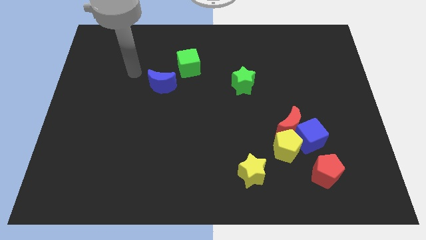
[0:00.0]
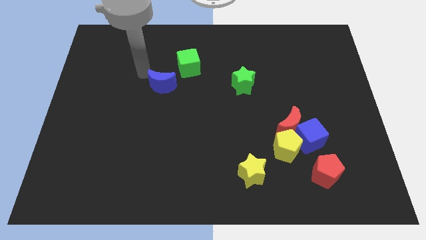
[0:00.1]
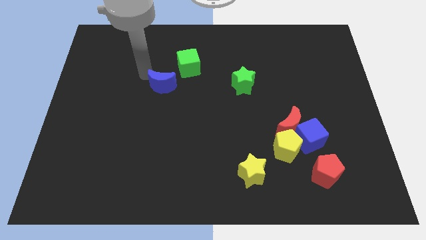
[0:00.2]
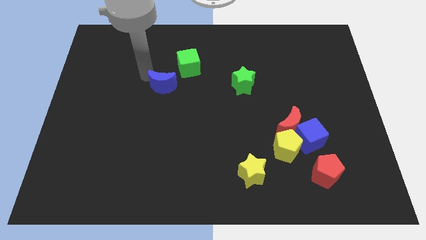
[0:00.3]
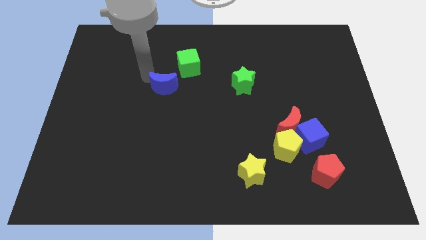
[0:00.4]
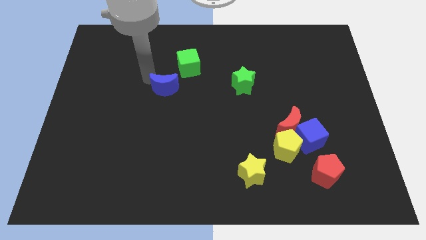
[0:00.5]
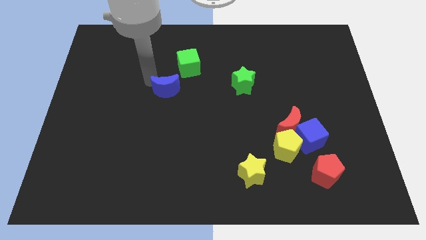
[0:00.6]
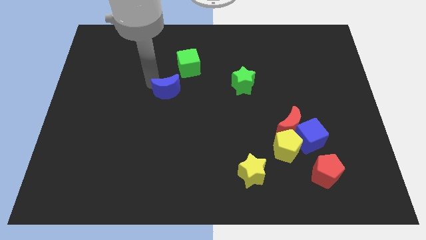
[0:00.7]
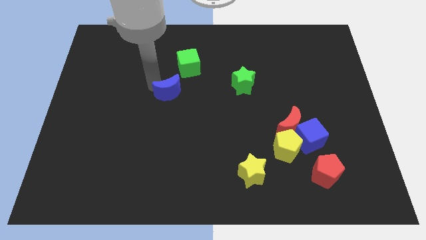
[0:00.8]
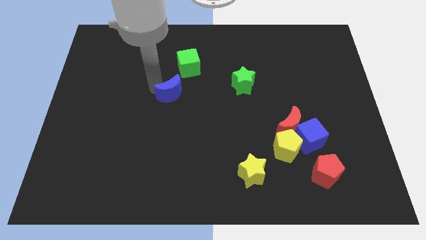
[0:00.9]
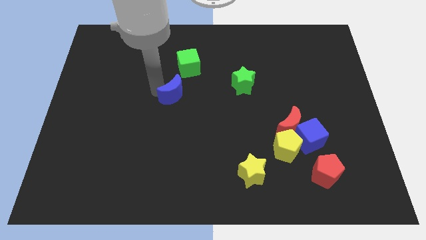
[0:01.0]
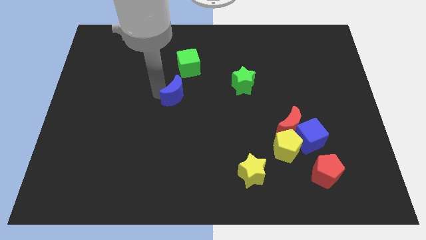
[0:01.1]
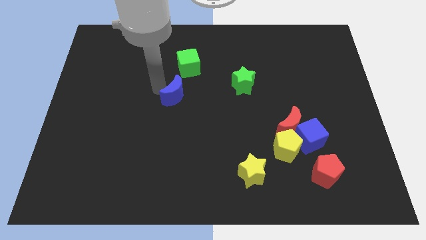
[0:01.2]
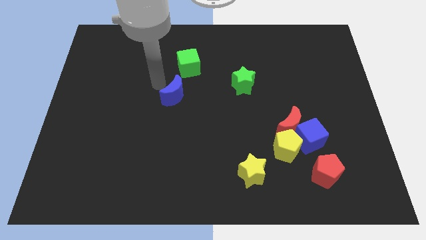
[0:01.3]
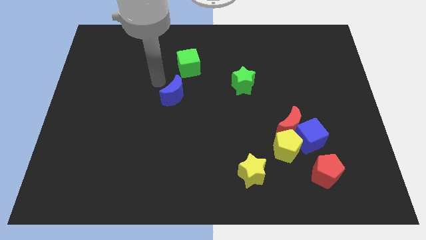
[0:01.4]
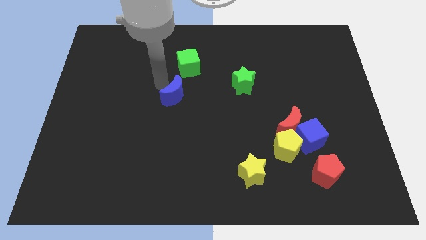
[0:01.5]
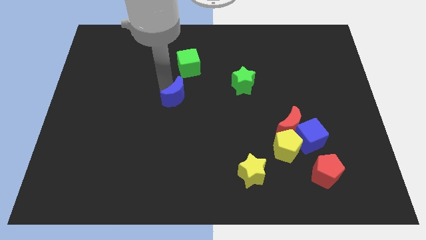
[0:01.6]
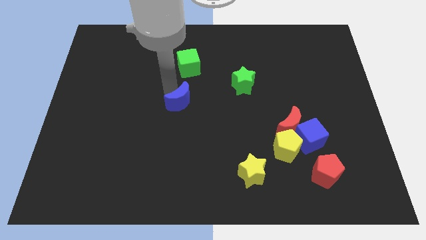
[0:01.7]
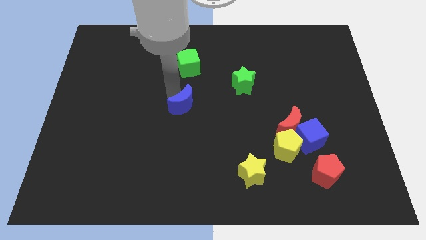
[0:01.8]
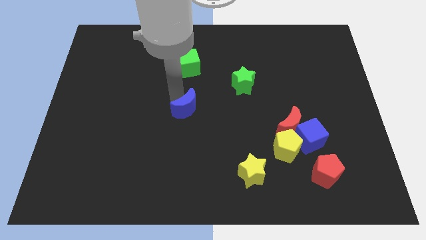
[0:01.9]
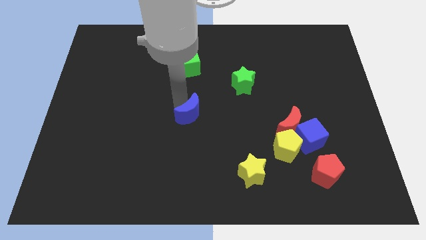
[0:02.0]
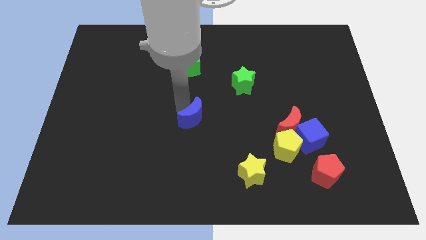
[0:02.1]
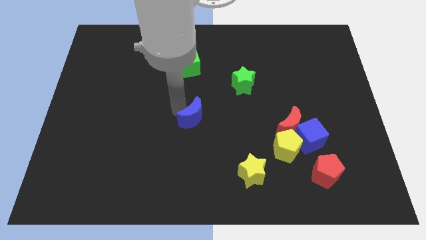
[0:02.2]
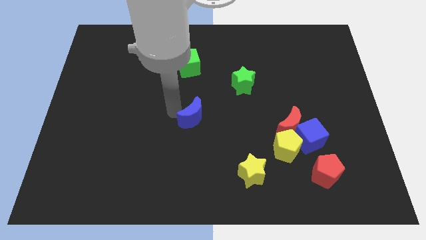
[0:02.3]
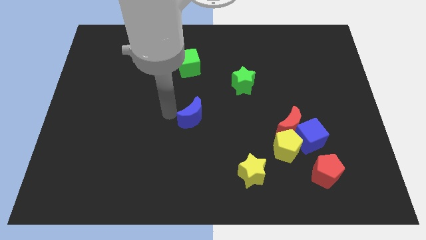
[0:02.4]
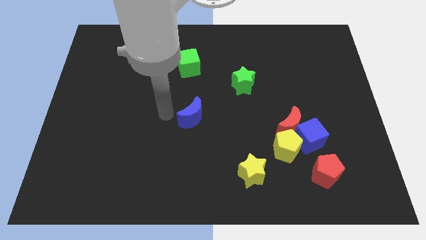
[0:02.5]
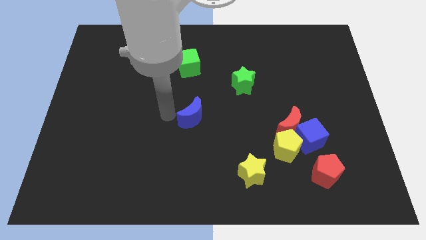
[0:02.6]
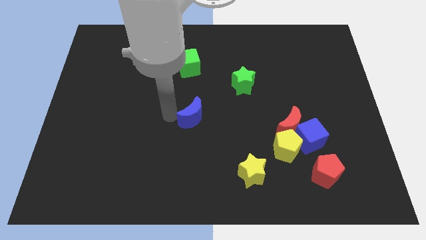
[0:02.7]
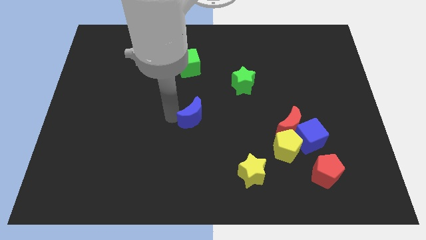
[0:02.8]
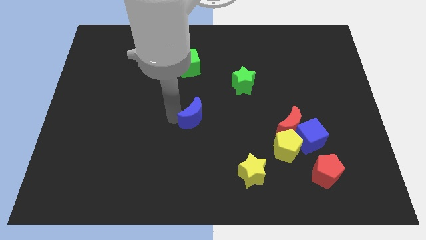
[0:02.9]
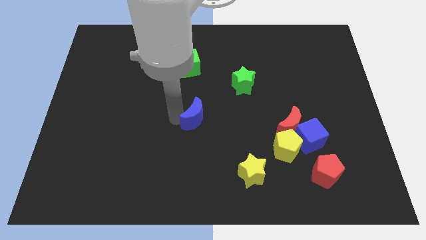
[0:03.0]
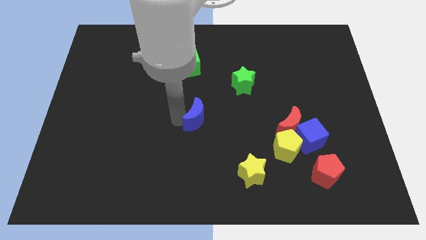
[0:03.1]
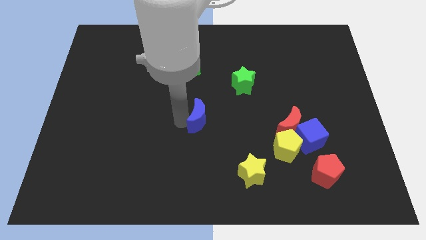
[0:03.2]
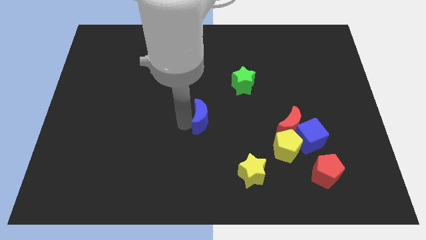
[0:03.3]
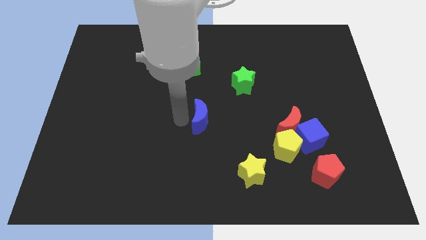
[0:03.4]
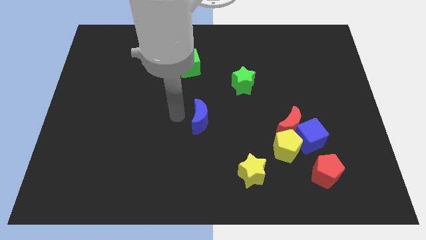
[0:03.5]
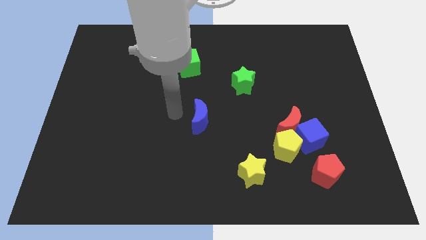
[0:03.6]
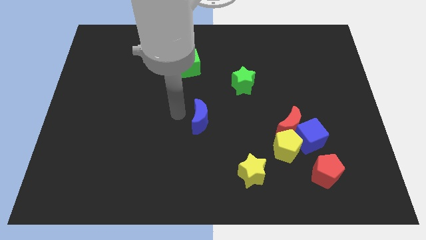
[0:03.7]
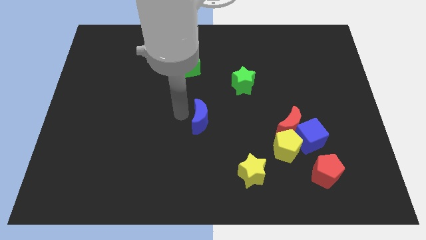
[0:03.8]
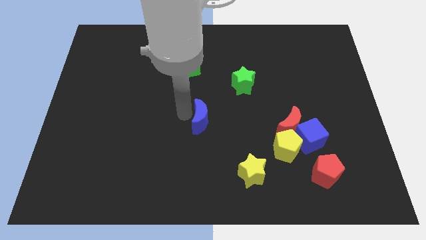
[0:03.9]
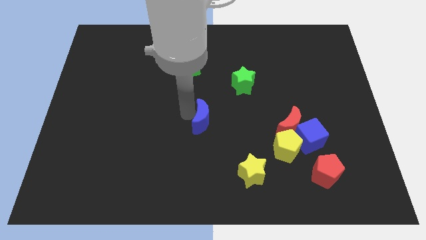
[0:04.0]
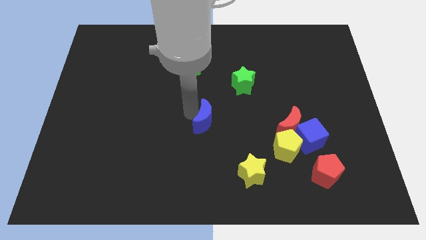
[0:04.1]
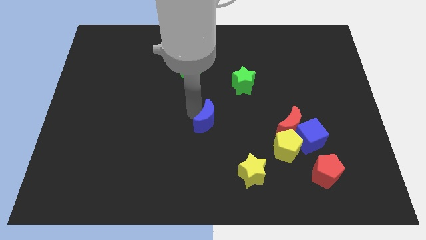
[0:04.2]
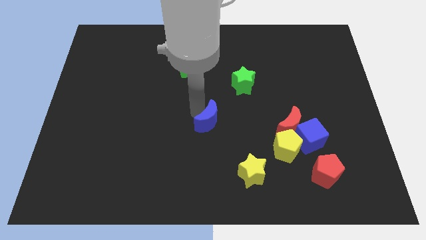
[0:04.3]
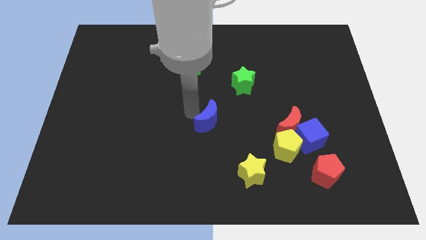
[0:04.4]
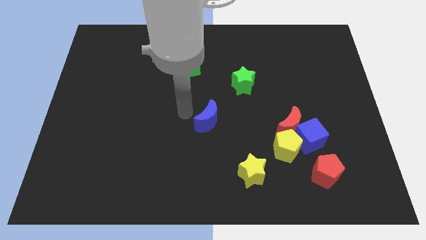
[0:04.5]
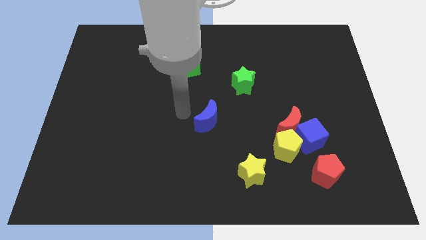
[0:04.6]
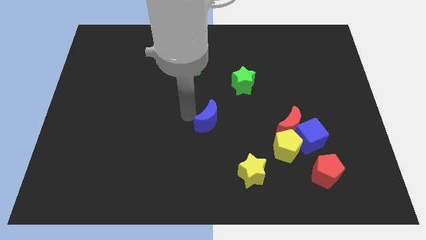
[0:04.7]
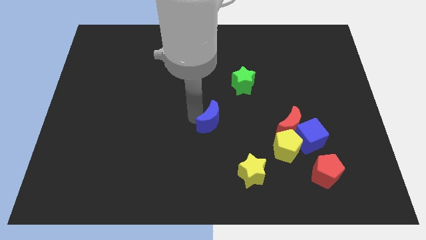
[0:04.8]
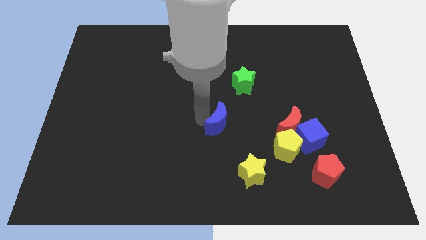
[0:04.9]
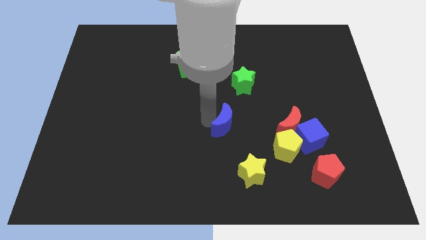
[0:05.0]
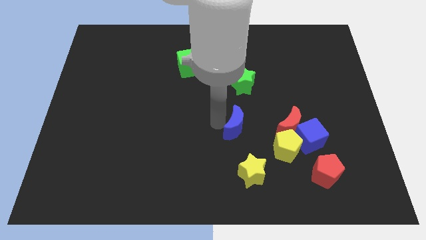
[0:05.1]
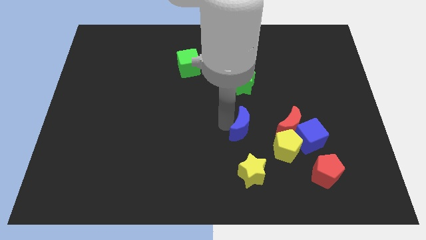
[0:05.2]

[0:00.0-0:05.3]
slide the blue moon to the left of the blue cube

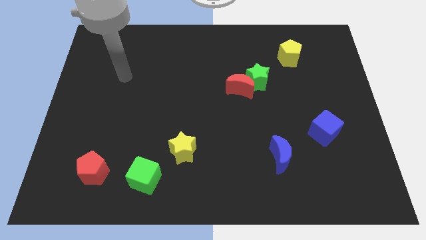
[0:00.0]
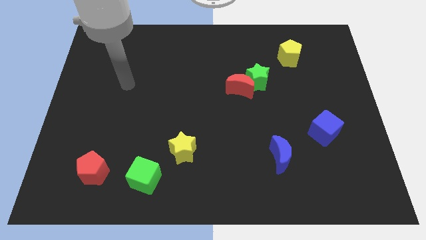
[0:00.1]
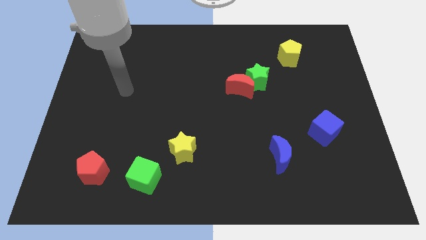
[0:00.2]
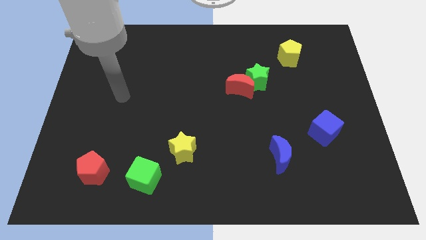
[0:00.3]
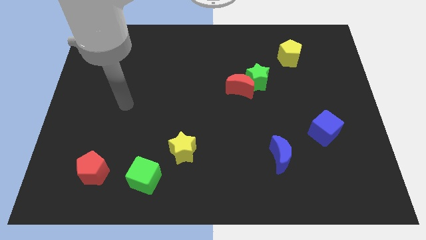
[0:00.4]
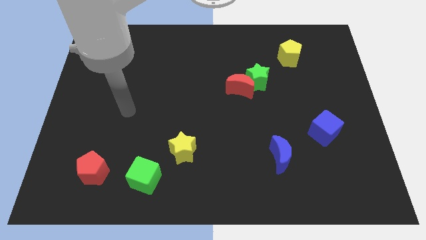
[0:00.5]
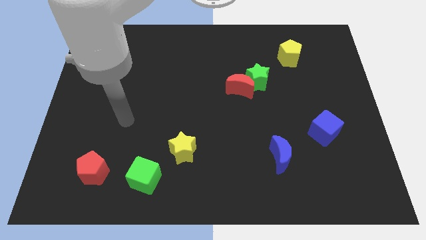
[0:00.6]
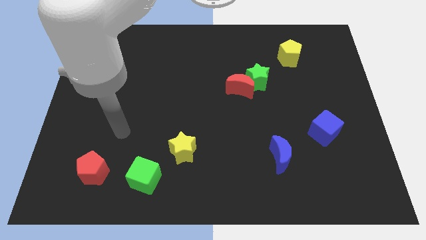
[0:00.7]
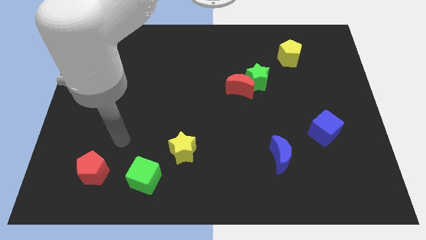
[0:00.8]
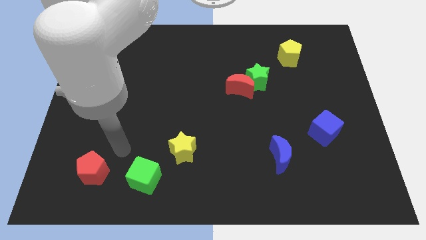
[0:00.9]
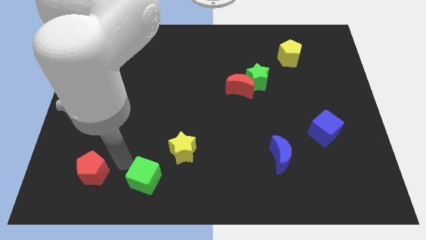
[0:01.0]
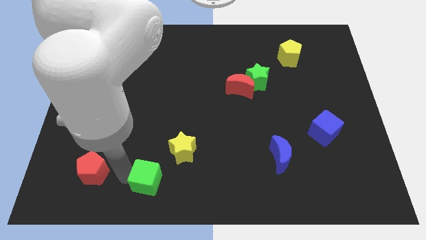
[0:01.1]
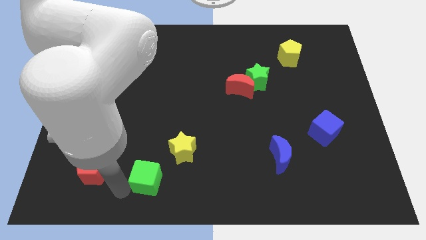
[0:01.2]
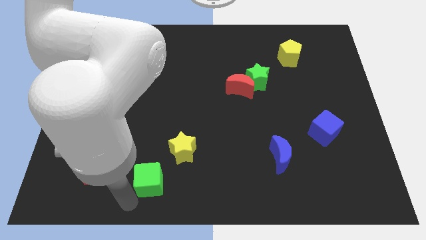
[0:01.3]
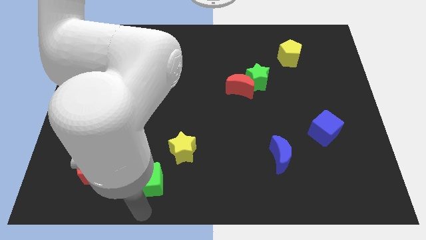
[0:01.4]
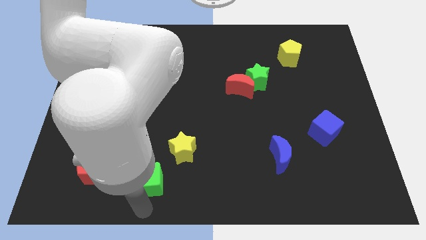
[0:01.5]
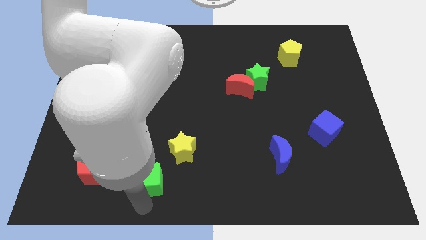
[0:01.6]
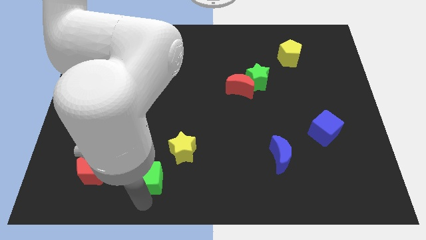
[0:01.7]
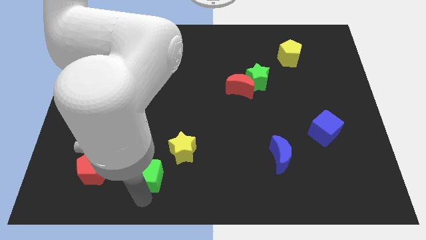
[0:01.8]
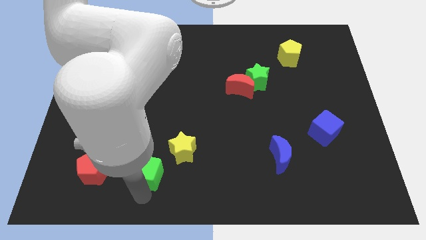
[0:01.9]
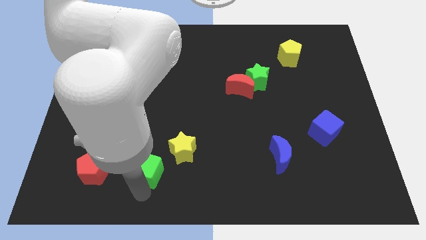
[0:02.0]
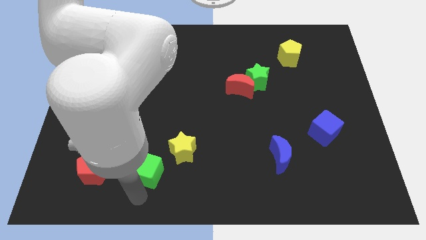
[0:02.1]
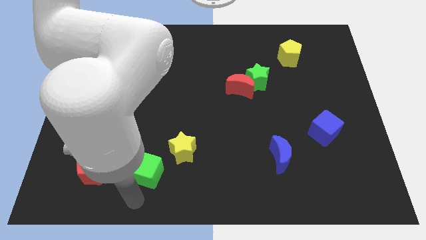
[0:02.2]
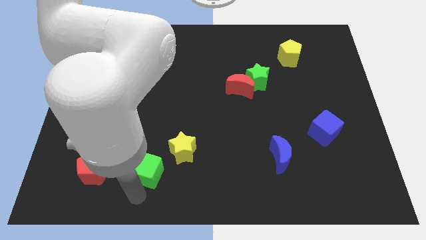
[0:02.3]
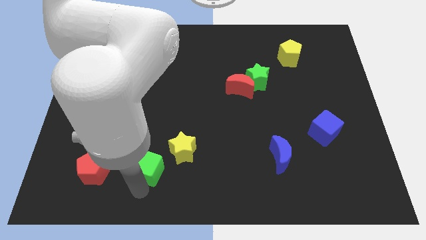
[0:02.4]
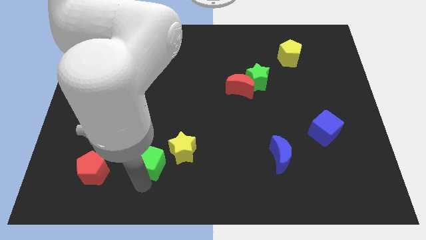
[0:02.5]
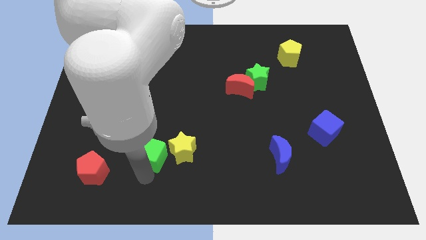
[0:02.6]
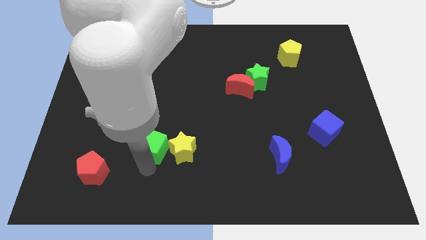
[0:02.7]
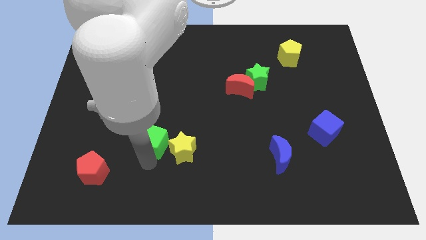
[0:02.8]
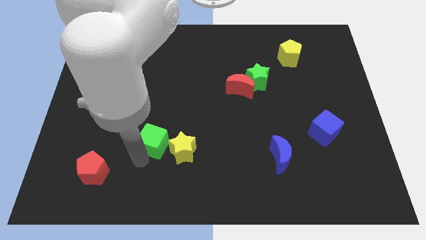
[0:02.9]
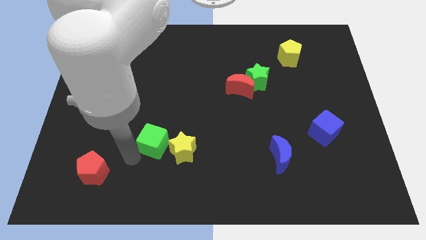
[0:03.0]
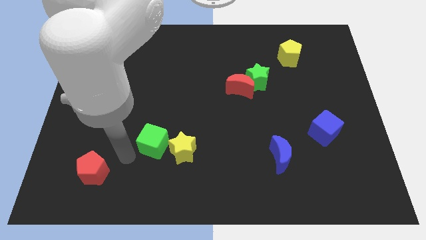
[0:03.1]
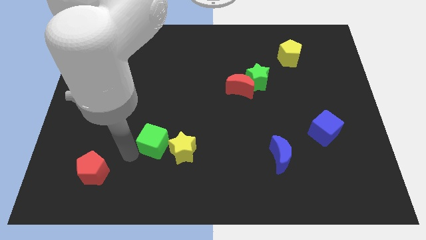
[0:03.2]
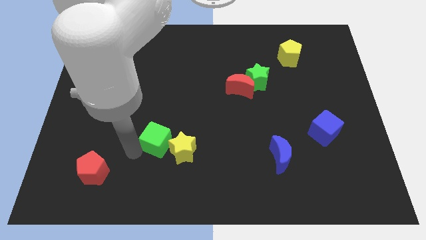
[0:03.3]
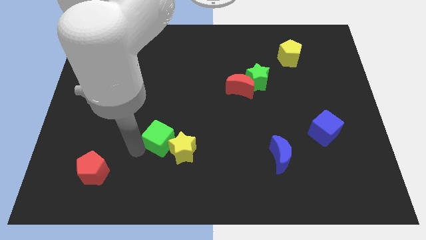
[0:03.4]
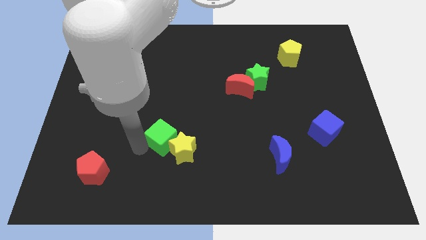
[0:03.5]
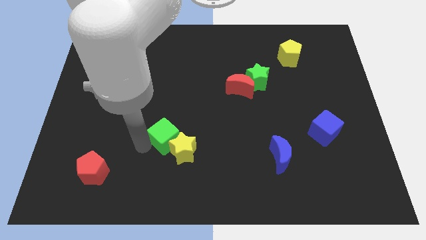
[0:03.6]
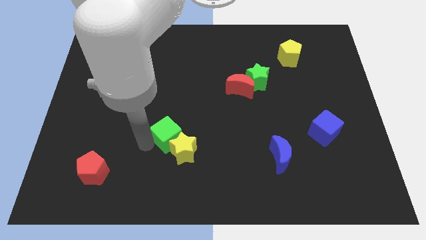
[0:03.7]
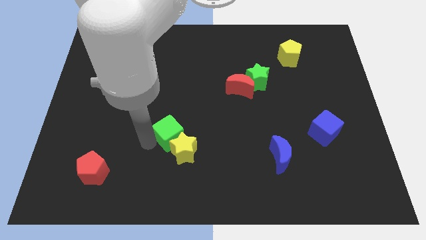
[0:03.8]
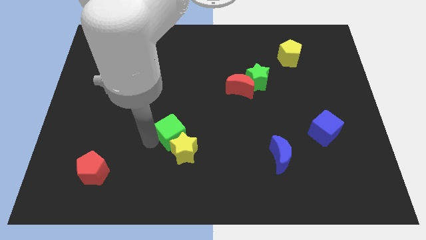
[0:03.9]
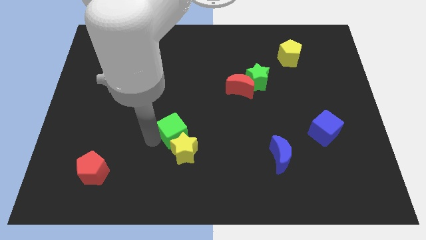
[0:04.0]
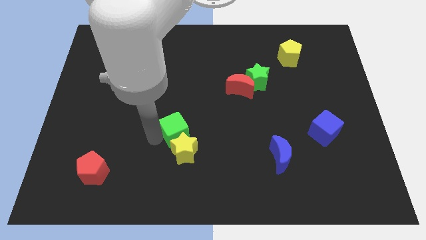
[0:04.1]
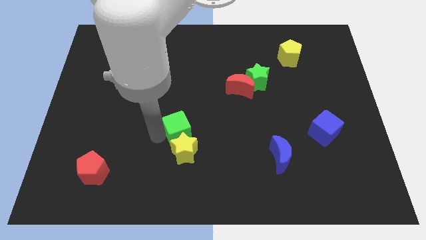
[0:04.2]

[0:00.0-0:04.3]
move the green cube to the top right of the yellow star
